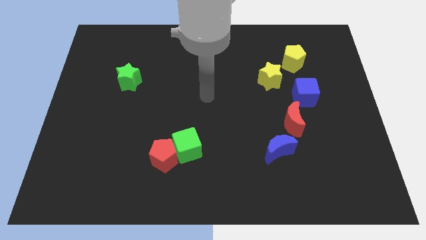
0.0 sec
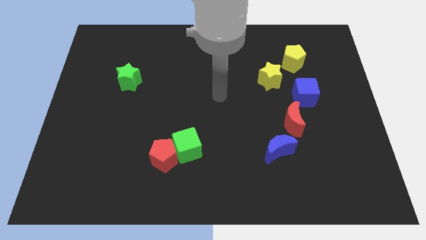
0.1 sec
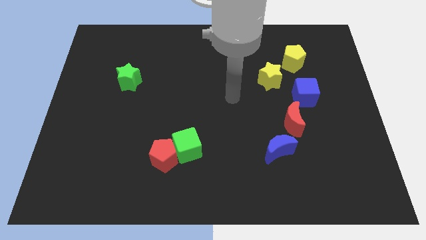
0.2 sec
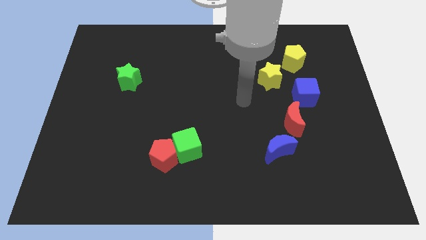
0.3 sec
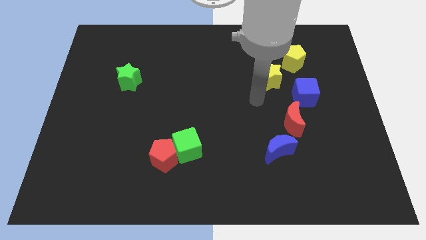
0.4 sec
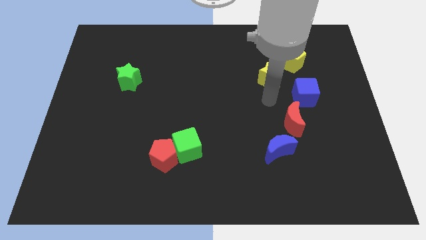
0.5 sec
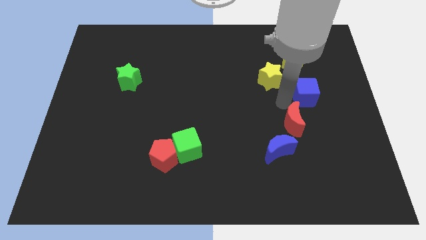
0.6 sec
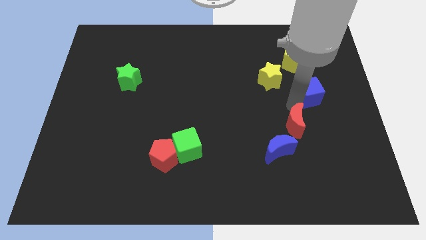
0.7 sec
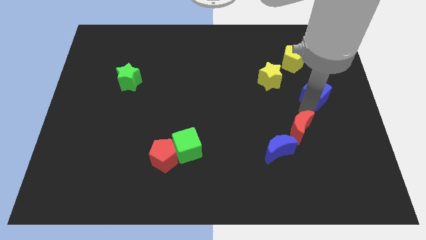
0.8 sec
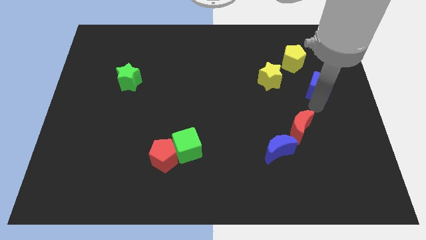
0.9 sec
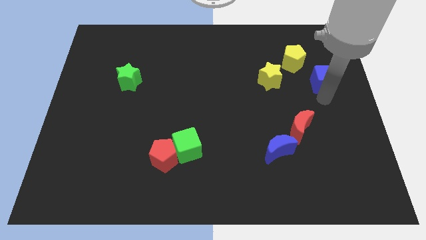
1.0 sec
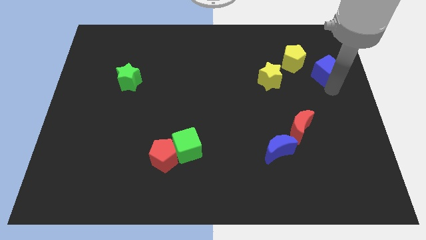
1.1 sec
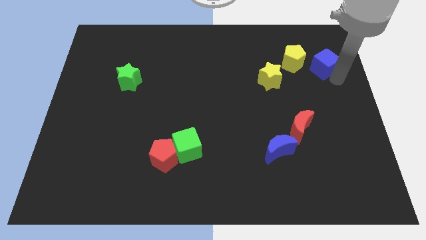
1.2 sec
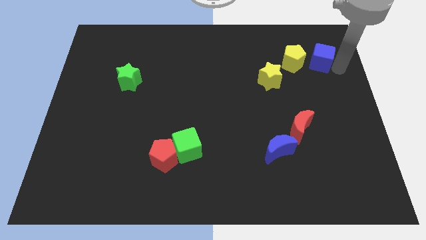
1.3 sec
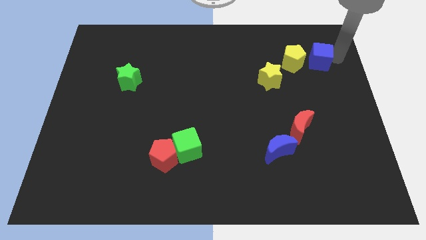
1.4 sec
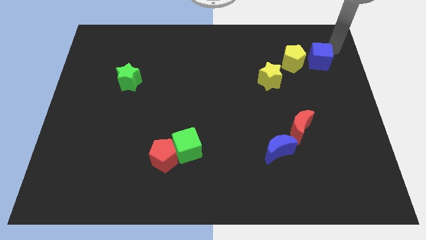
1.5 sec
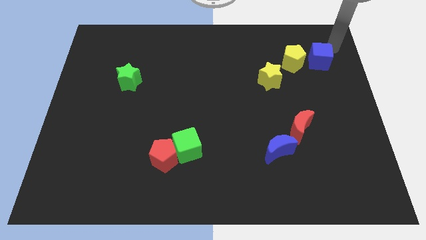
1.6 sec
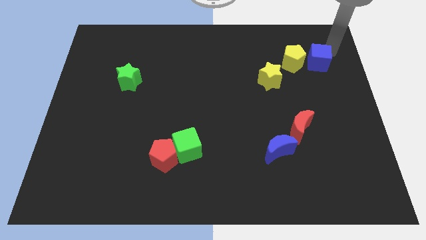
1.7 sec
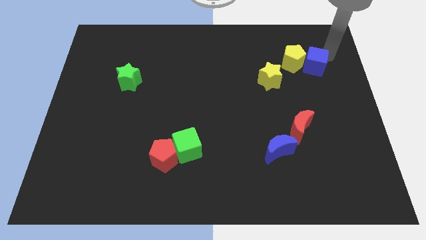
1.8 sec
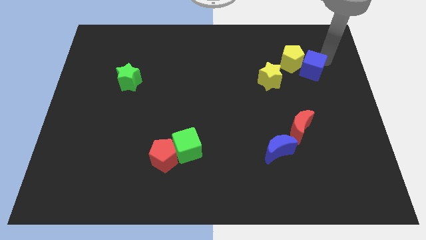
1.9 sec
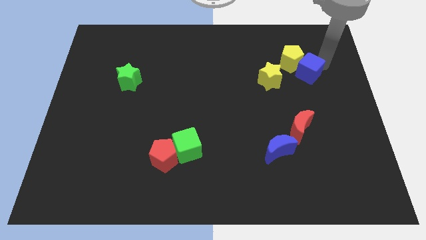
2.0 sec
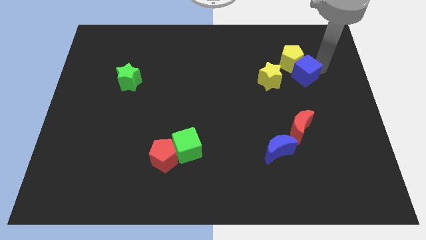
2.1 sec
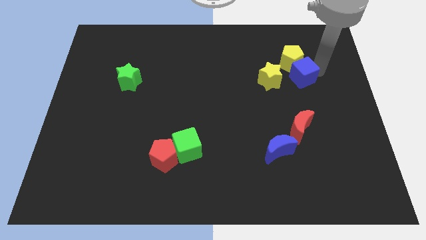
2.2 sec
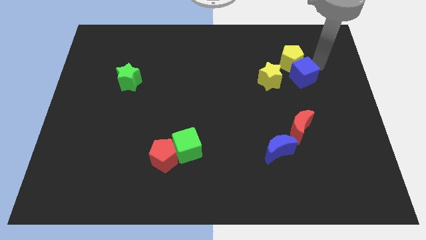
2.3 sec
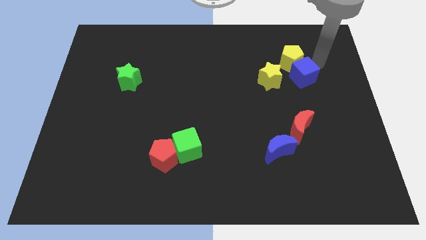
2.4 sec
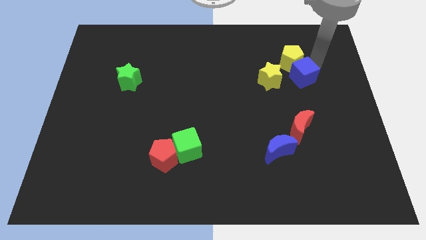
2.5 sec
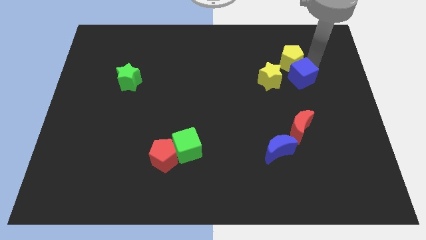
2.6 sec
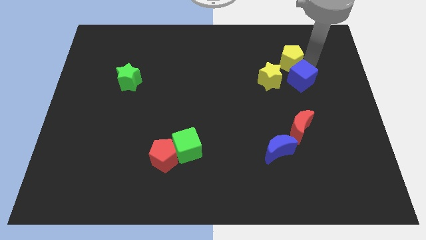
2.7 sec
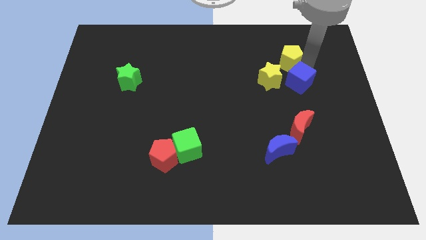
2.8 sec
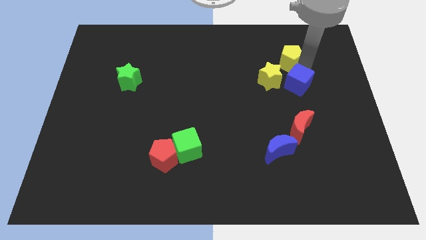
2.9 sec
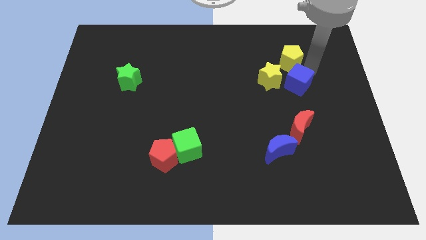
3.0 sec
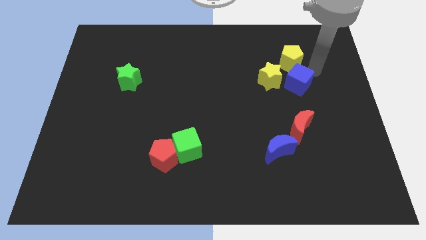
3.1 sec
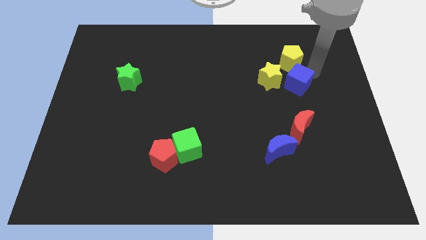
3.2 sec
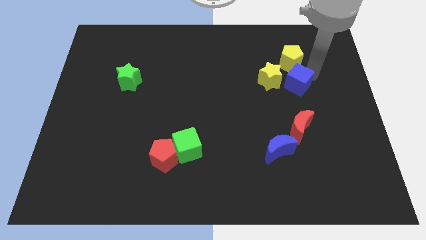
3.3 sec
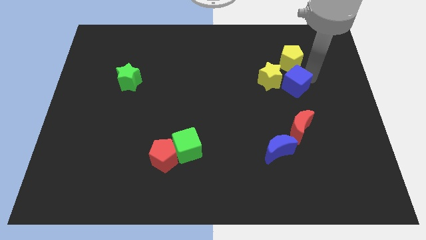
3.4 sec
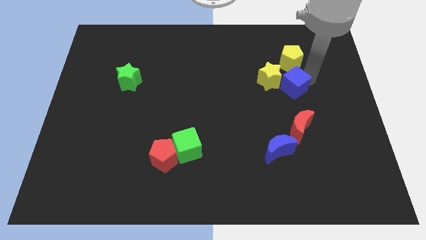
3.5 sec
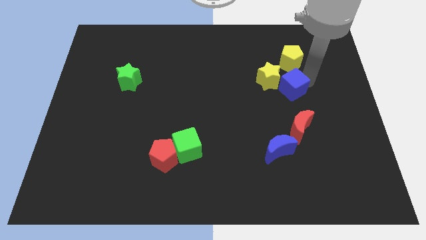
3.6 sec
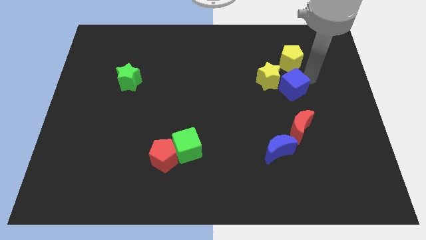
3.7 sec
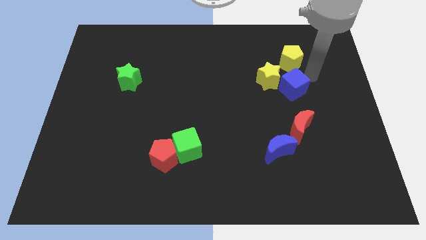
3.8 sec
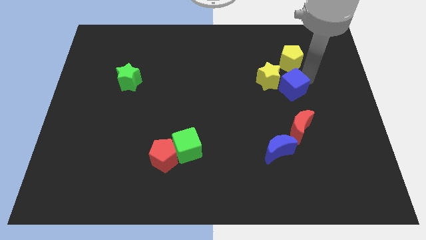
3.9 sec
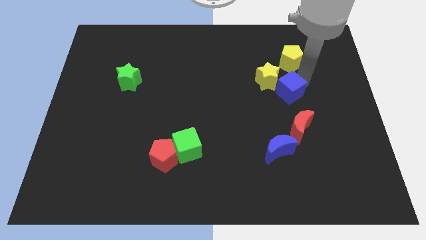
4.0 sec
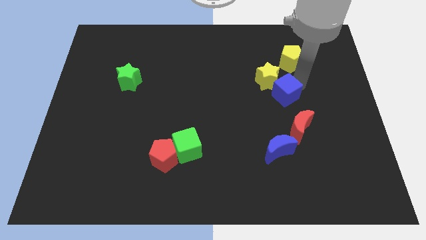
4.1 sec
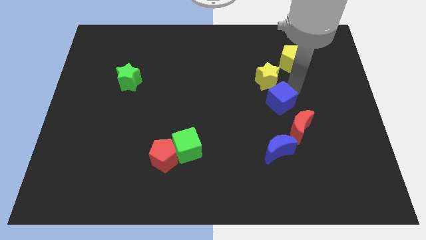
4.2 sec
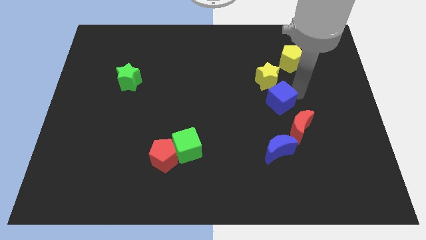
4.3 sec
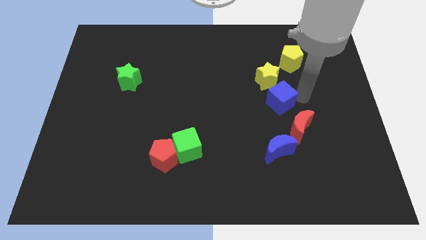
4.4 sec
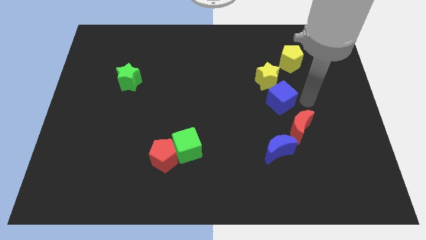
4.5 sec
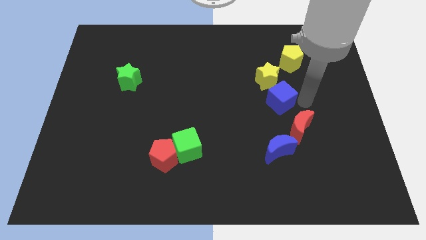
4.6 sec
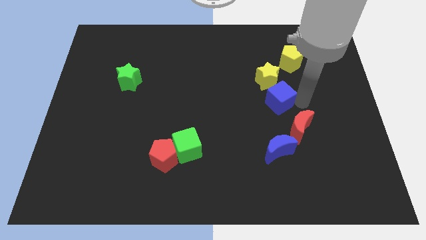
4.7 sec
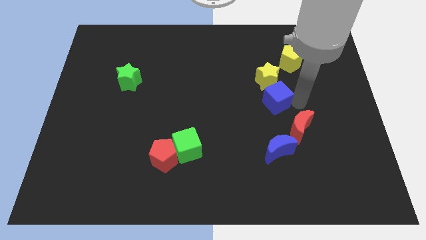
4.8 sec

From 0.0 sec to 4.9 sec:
push the blue cube to the left a bit

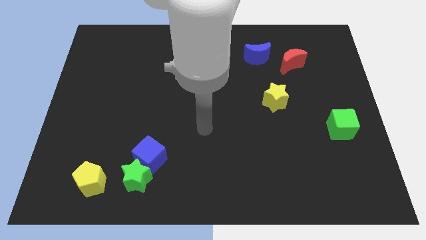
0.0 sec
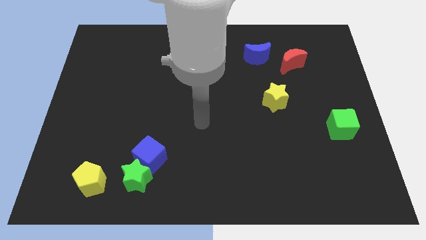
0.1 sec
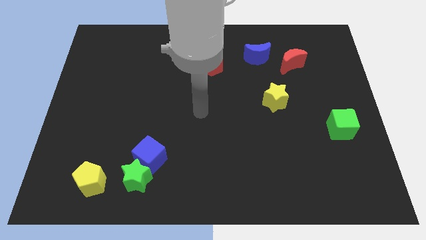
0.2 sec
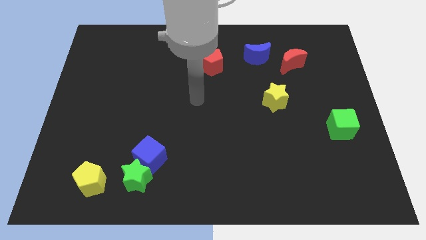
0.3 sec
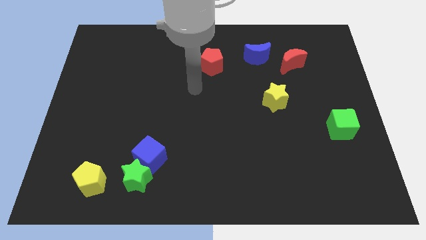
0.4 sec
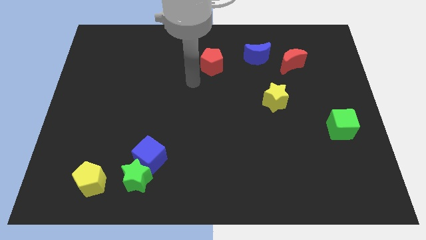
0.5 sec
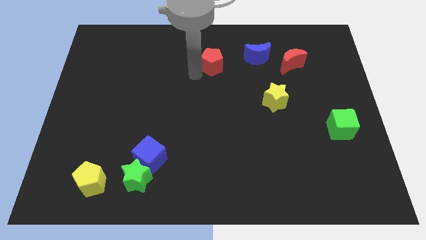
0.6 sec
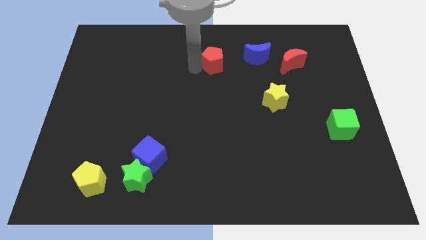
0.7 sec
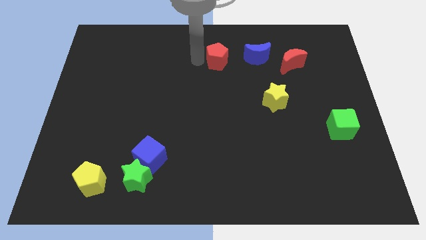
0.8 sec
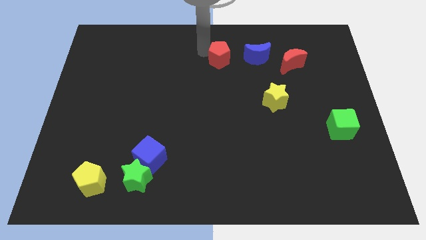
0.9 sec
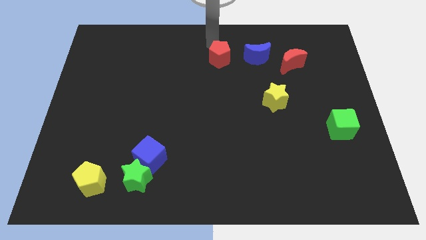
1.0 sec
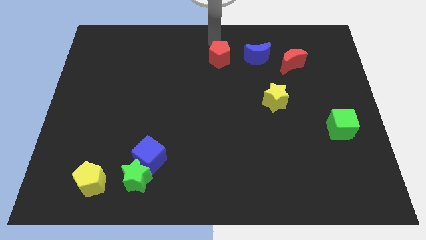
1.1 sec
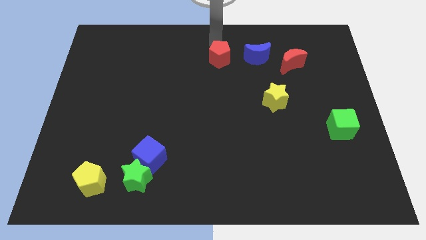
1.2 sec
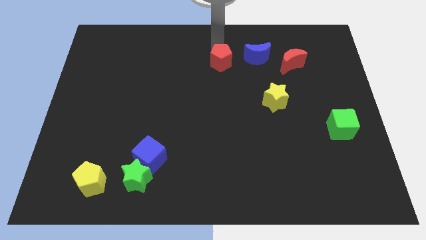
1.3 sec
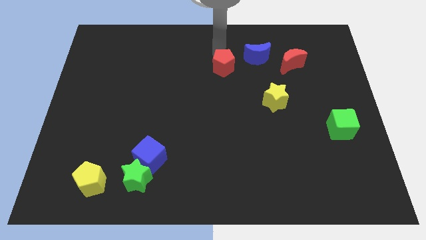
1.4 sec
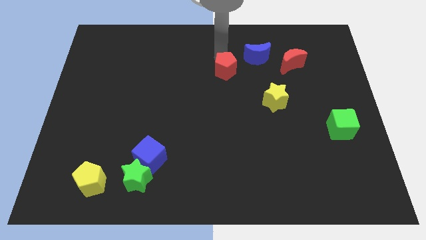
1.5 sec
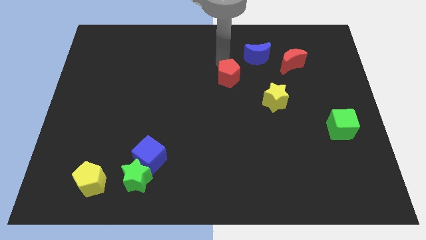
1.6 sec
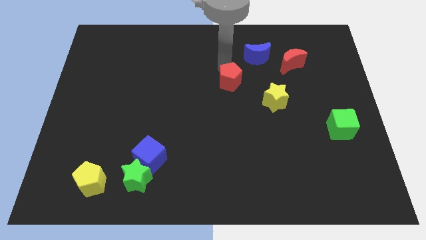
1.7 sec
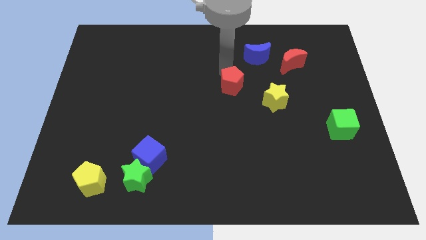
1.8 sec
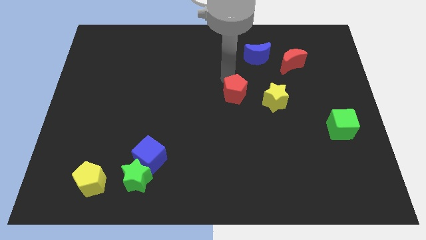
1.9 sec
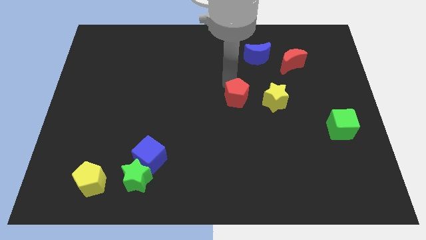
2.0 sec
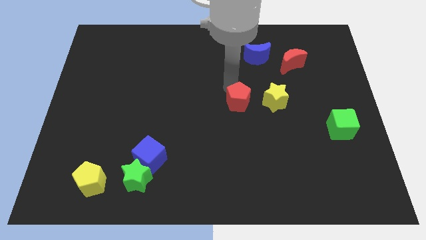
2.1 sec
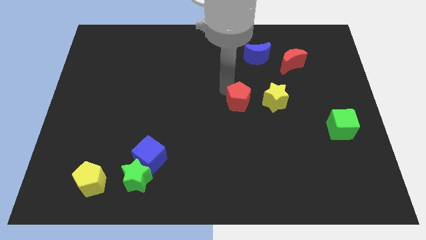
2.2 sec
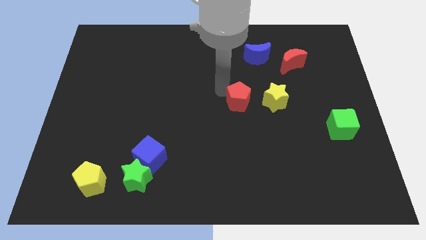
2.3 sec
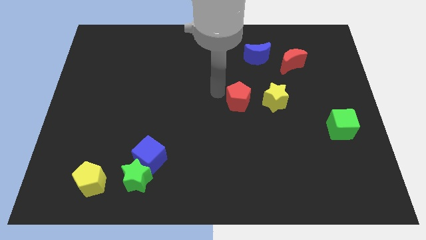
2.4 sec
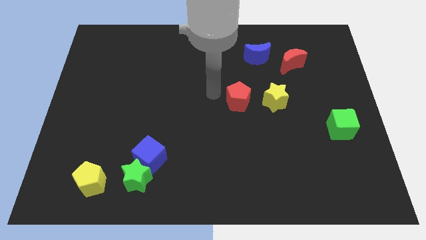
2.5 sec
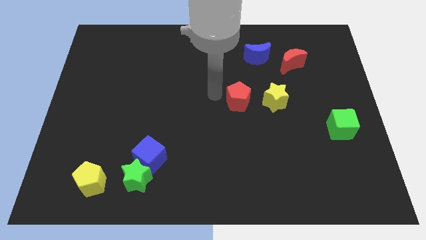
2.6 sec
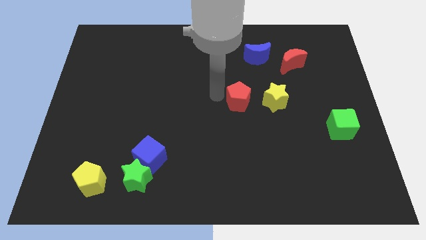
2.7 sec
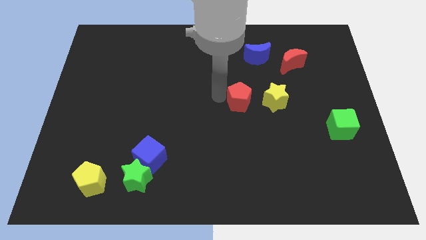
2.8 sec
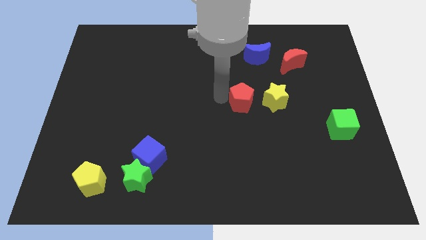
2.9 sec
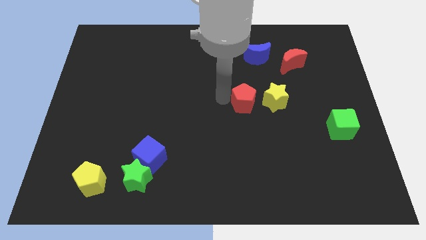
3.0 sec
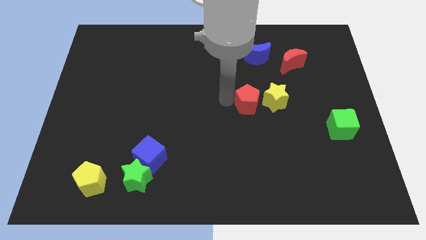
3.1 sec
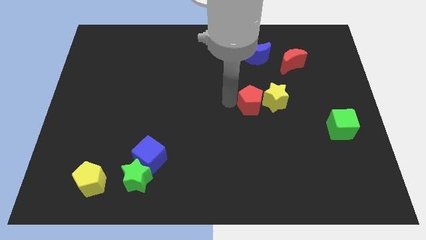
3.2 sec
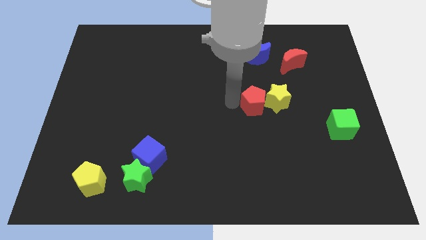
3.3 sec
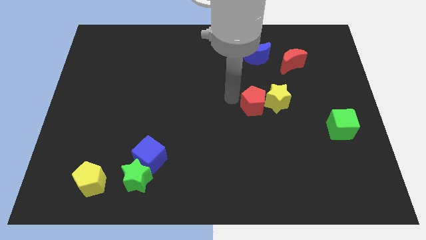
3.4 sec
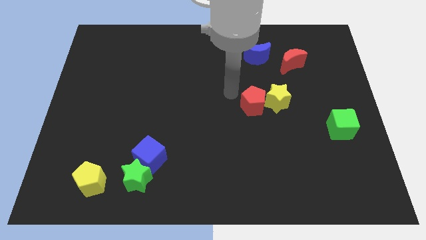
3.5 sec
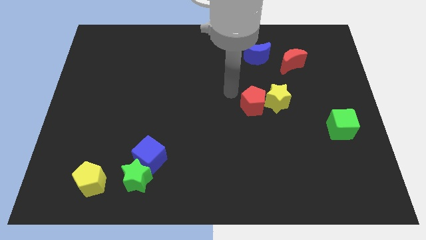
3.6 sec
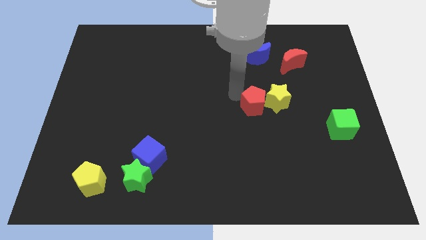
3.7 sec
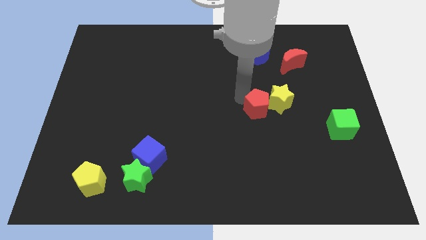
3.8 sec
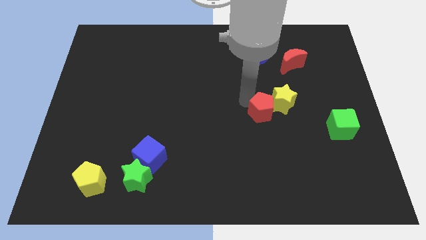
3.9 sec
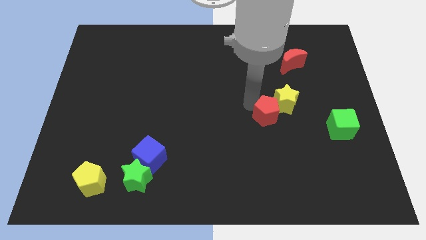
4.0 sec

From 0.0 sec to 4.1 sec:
move the red pentagon downwards and then right
